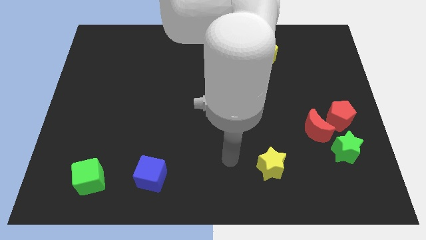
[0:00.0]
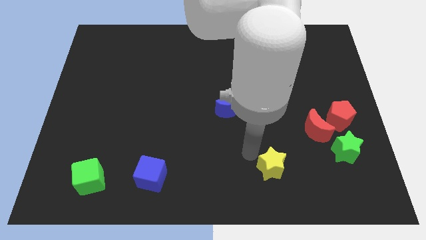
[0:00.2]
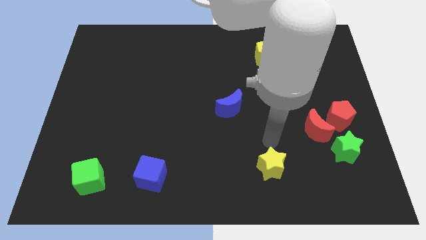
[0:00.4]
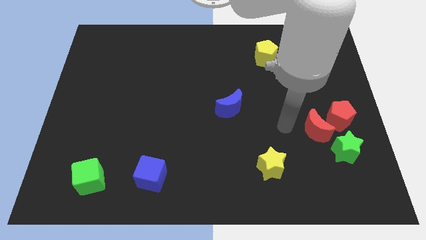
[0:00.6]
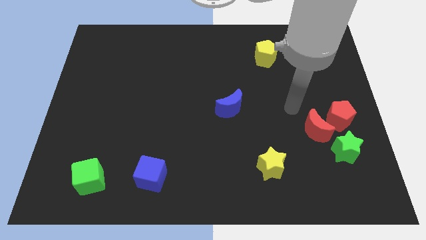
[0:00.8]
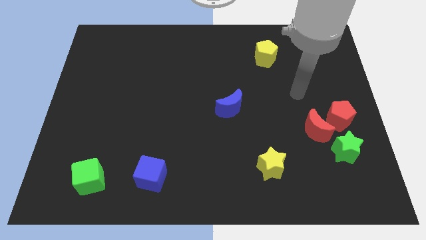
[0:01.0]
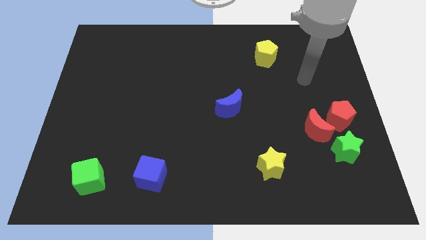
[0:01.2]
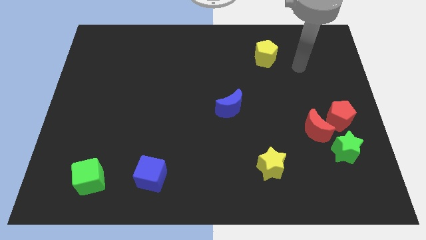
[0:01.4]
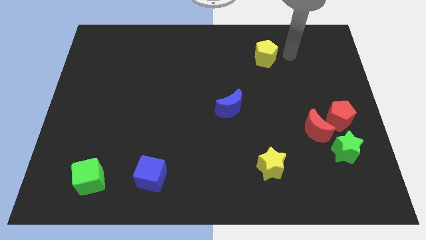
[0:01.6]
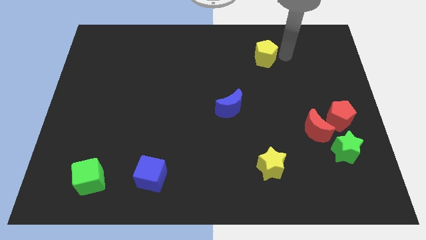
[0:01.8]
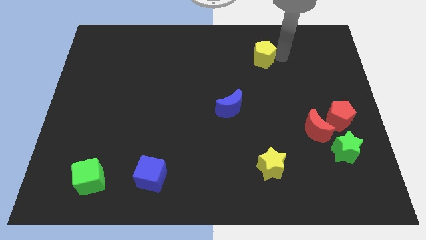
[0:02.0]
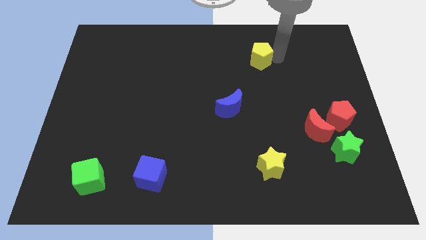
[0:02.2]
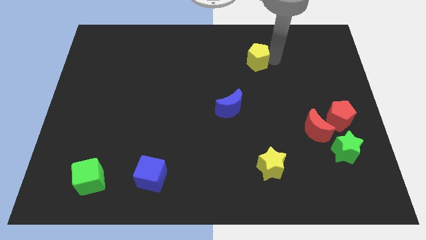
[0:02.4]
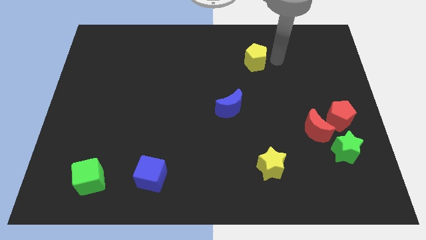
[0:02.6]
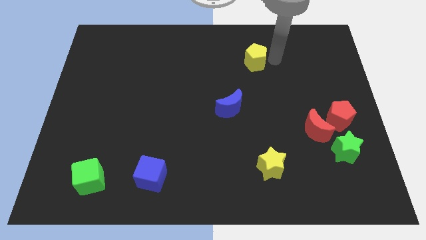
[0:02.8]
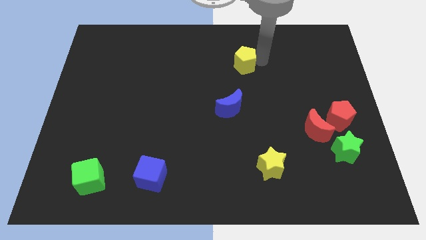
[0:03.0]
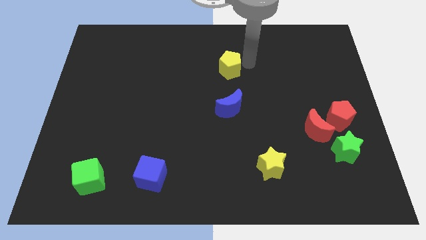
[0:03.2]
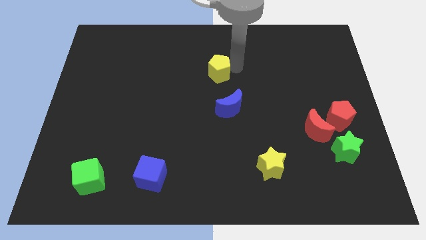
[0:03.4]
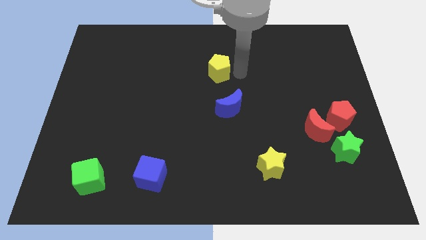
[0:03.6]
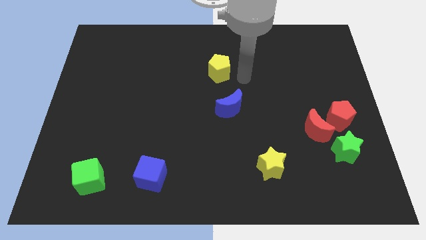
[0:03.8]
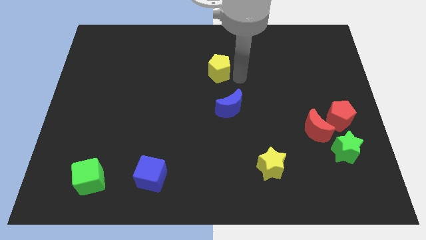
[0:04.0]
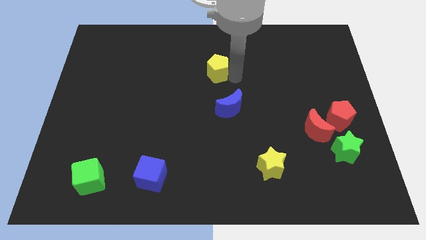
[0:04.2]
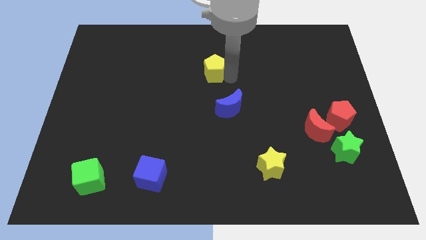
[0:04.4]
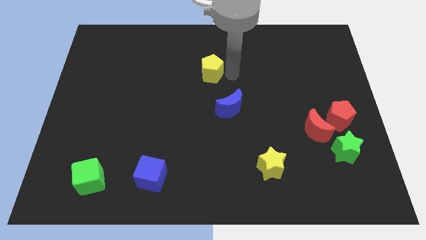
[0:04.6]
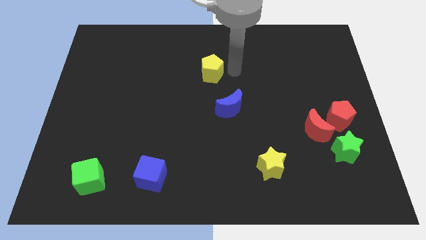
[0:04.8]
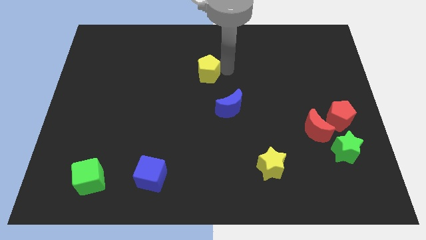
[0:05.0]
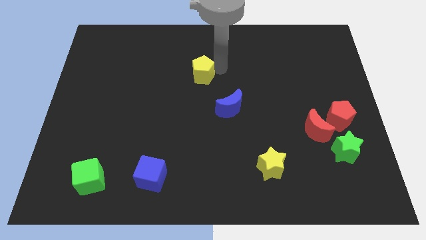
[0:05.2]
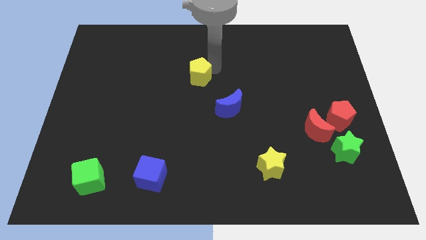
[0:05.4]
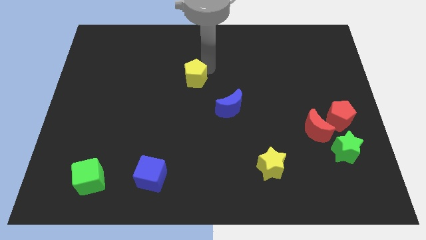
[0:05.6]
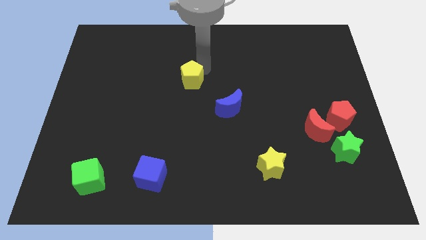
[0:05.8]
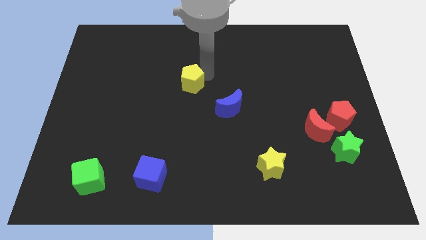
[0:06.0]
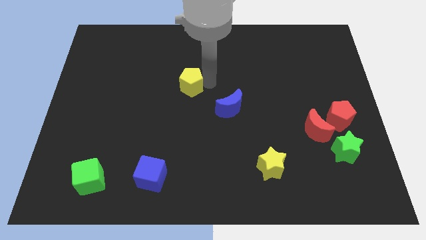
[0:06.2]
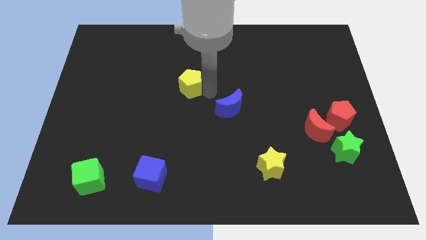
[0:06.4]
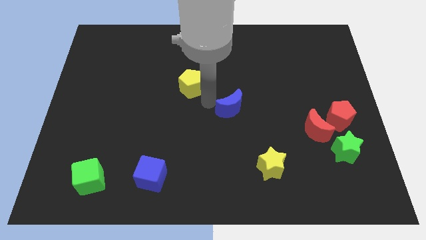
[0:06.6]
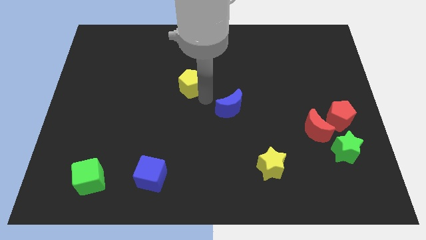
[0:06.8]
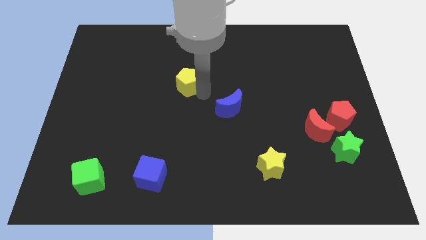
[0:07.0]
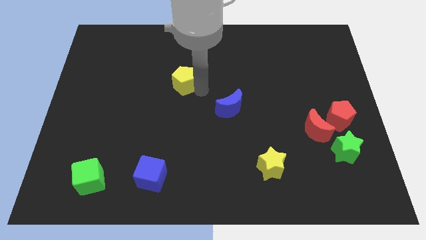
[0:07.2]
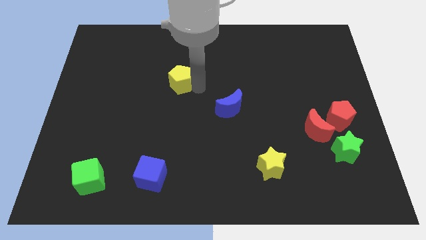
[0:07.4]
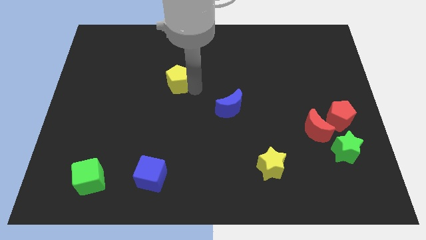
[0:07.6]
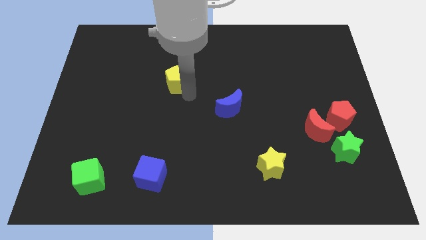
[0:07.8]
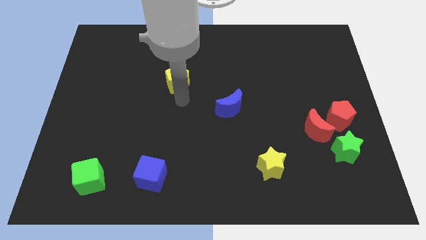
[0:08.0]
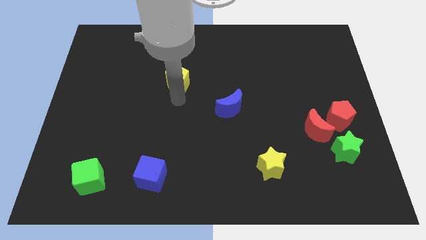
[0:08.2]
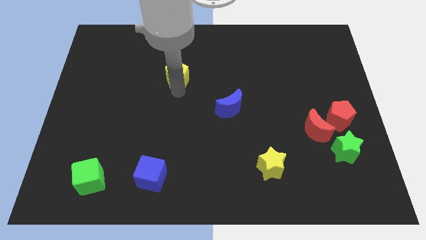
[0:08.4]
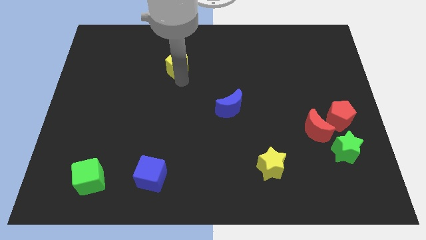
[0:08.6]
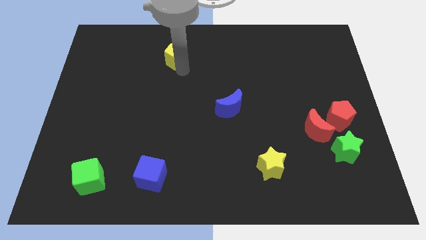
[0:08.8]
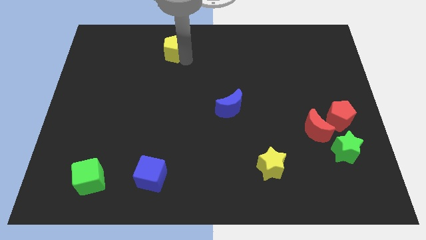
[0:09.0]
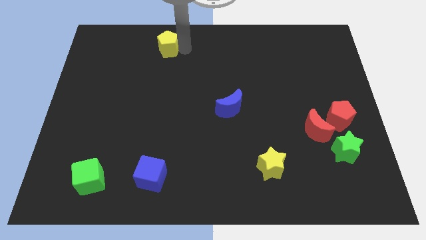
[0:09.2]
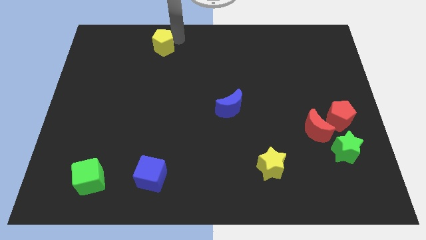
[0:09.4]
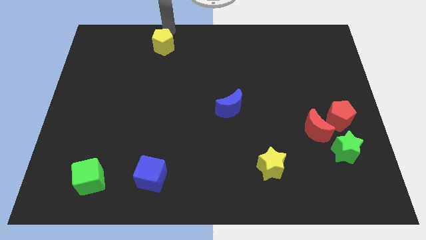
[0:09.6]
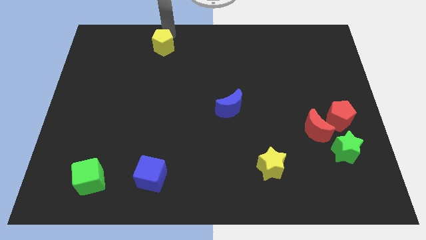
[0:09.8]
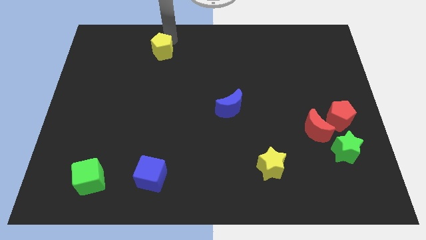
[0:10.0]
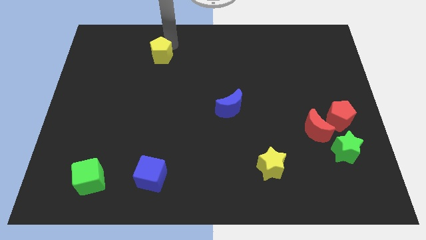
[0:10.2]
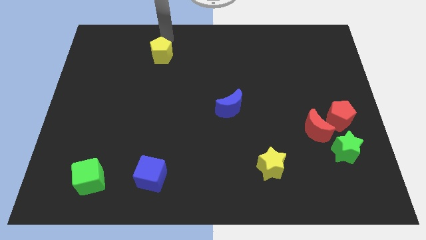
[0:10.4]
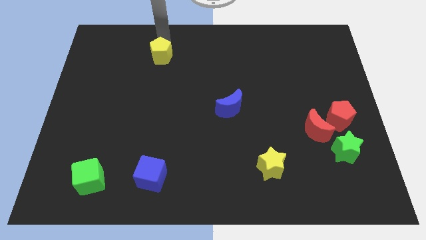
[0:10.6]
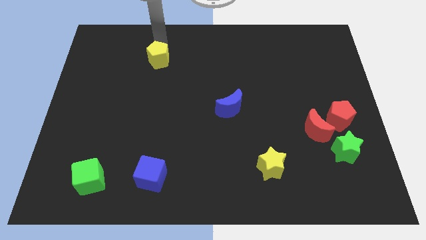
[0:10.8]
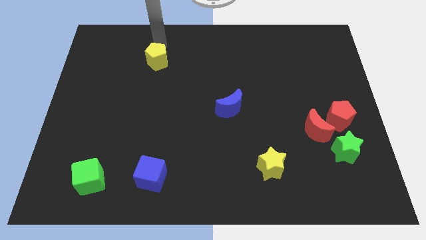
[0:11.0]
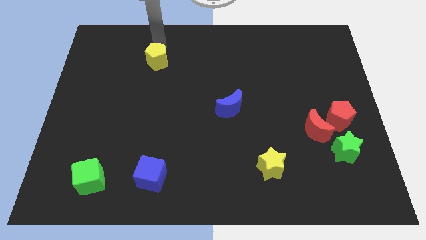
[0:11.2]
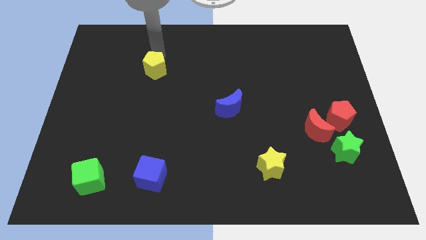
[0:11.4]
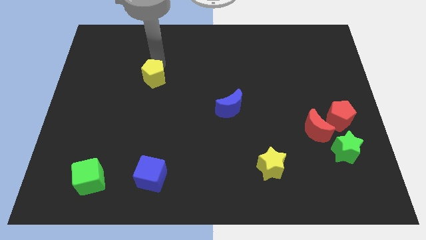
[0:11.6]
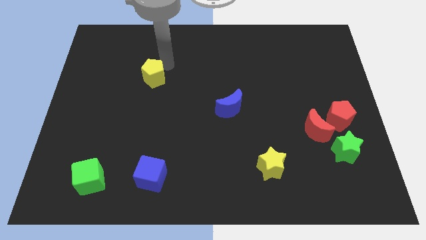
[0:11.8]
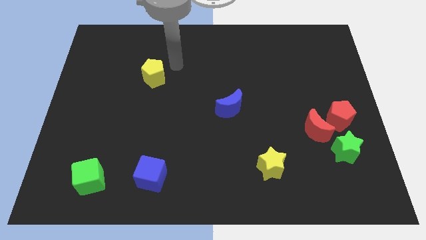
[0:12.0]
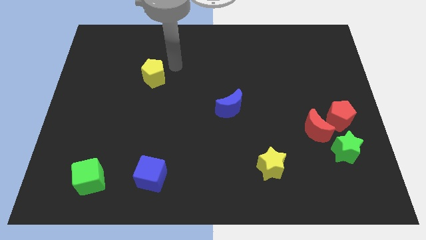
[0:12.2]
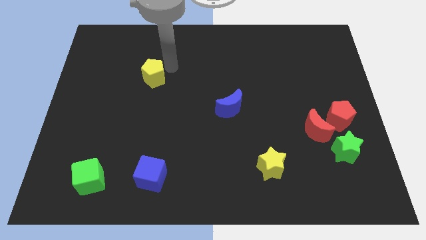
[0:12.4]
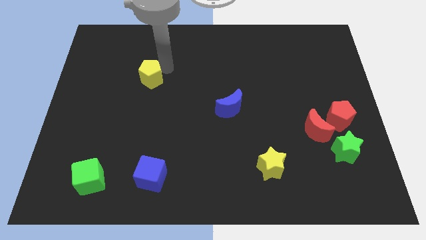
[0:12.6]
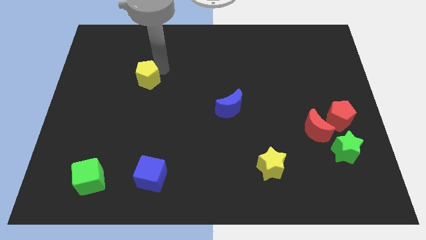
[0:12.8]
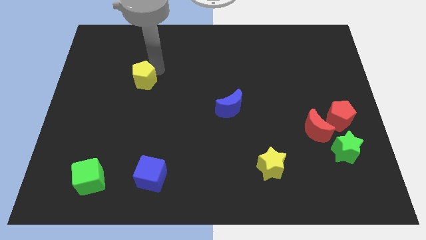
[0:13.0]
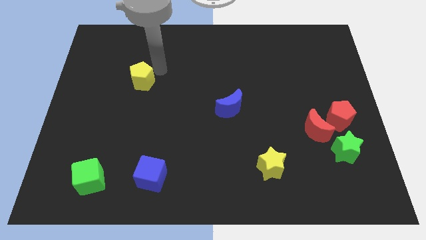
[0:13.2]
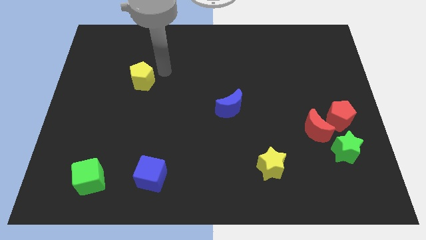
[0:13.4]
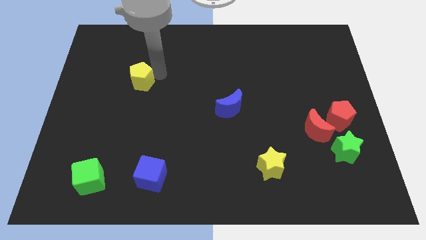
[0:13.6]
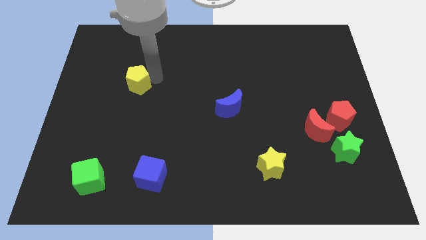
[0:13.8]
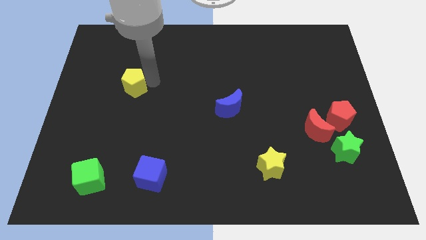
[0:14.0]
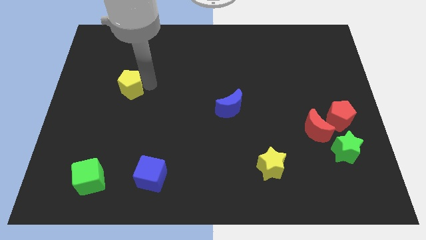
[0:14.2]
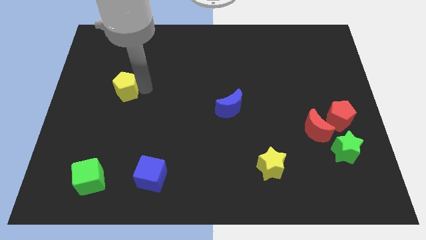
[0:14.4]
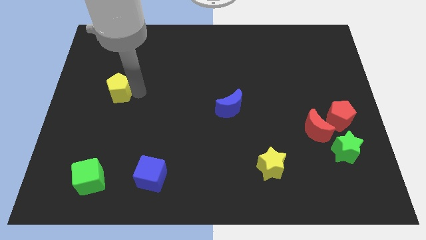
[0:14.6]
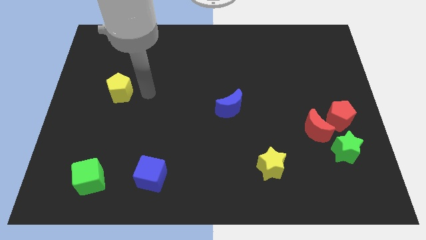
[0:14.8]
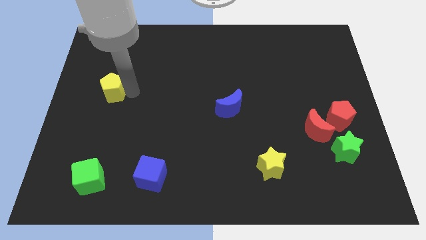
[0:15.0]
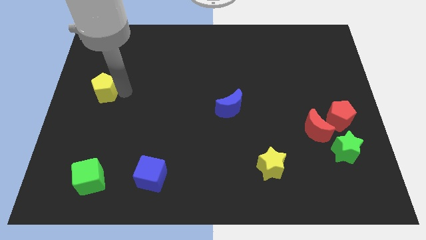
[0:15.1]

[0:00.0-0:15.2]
move the yellow pentagon to the left side
